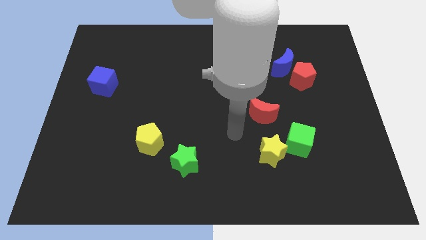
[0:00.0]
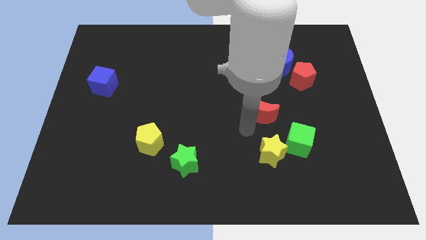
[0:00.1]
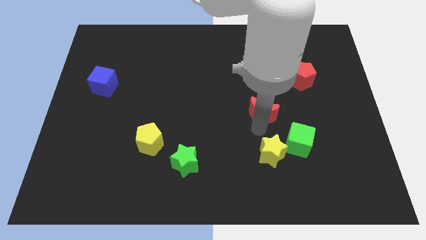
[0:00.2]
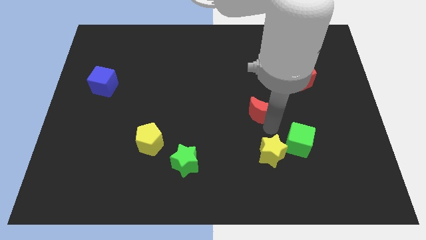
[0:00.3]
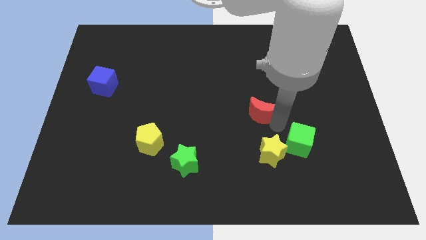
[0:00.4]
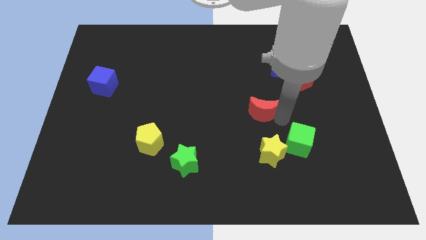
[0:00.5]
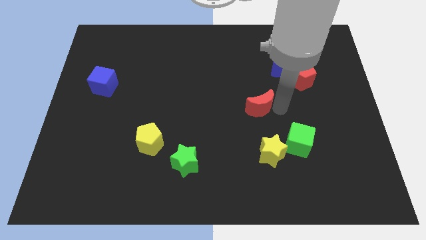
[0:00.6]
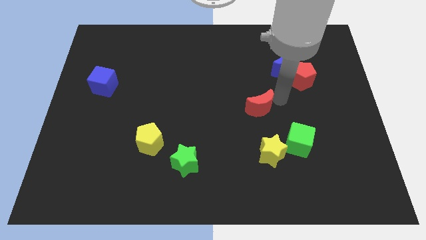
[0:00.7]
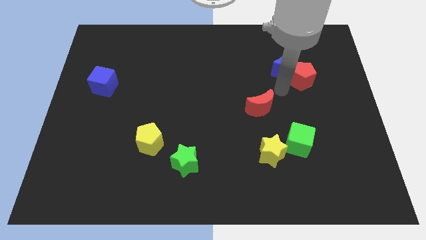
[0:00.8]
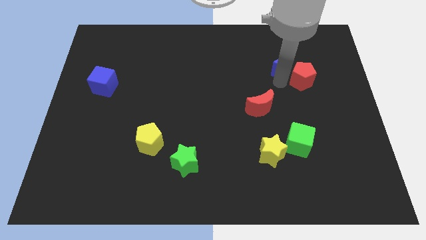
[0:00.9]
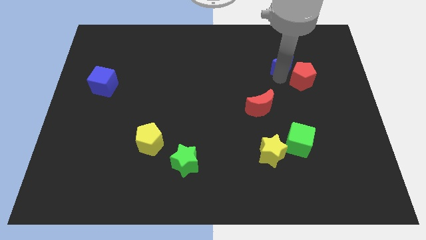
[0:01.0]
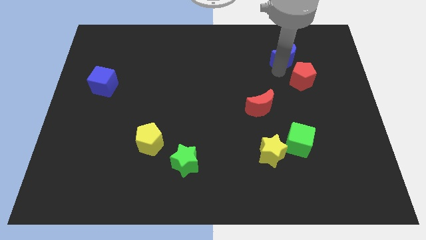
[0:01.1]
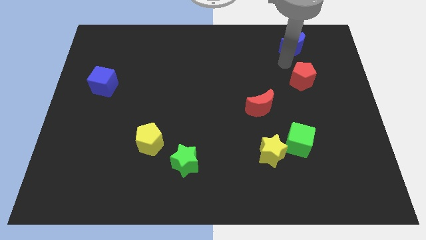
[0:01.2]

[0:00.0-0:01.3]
move the red pentagon away from the blue moon

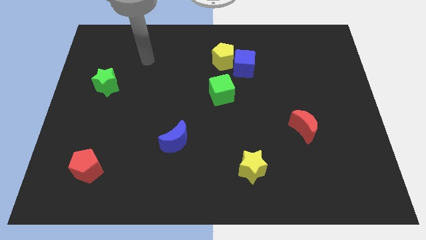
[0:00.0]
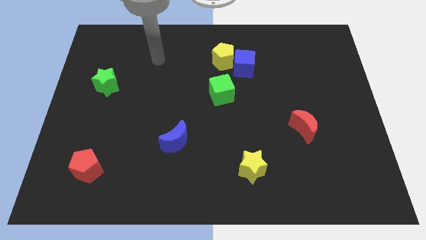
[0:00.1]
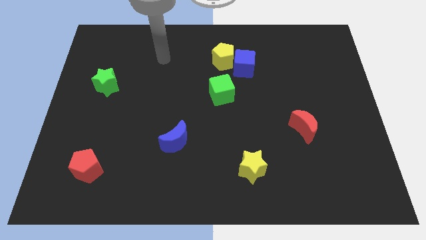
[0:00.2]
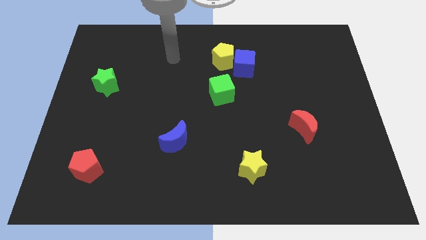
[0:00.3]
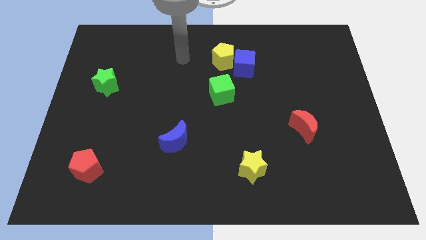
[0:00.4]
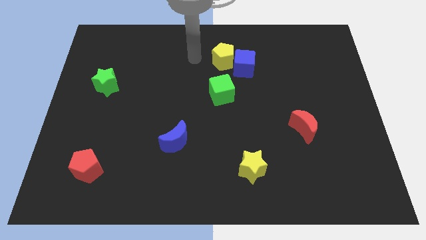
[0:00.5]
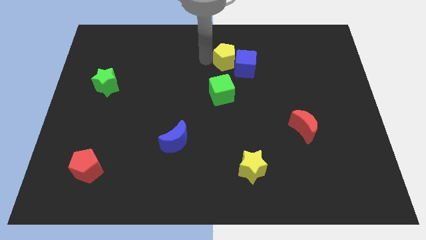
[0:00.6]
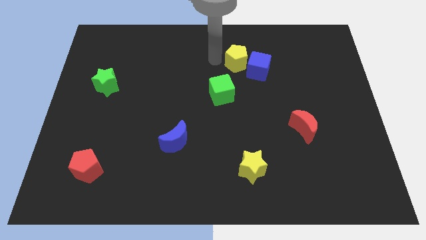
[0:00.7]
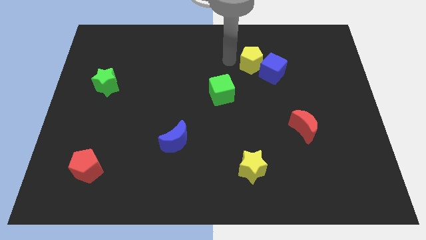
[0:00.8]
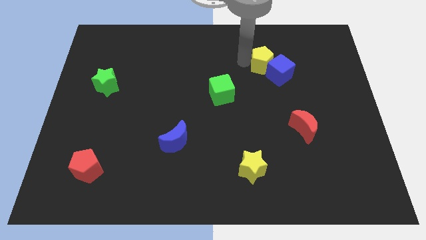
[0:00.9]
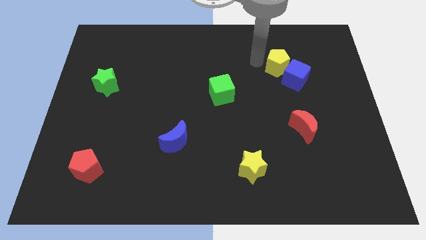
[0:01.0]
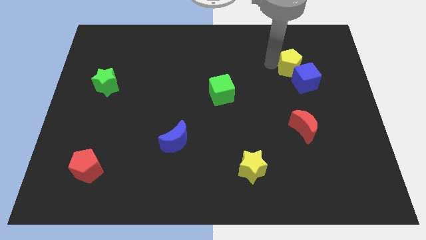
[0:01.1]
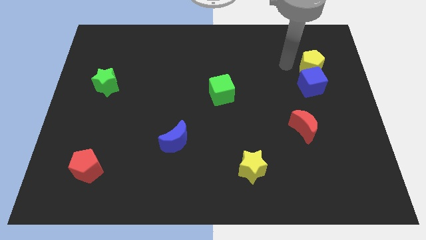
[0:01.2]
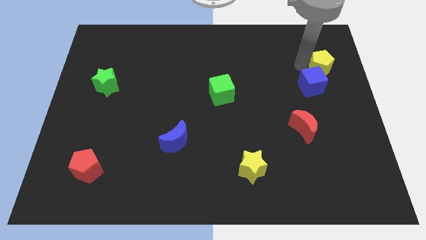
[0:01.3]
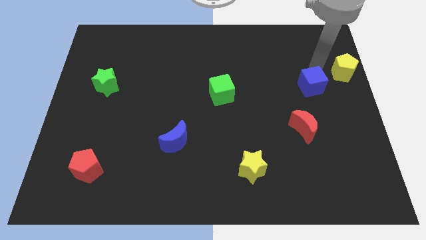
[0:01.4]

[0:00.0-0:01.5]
move the blue cube away from the yellow pentagon

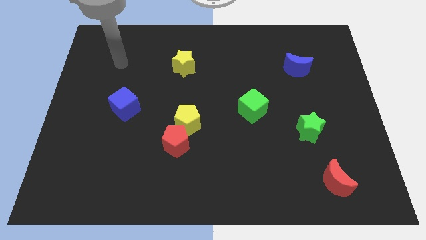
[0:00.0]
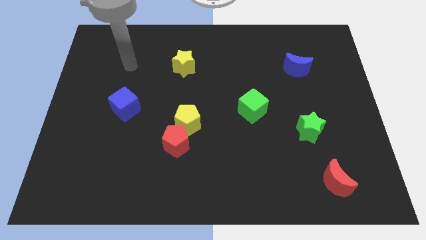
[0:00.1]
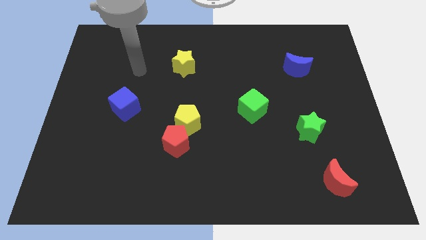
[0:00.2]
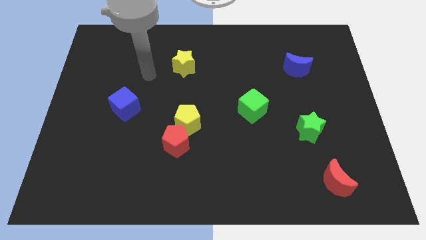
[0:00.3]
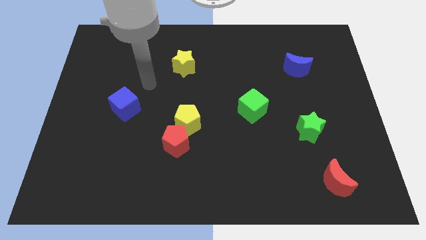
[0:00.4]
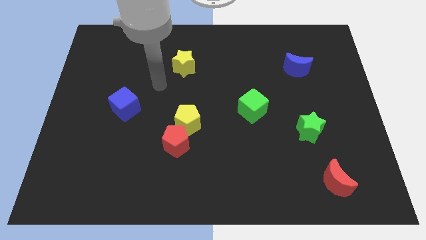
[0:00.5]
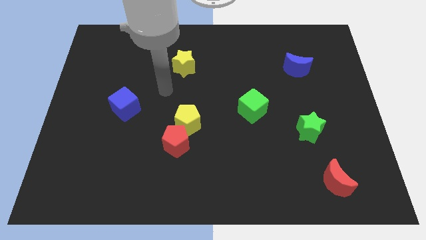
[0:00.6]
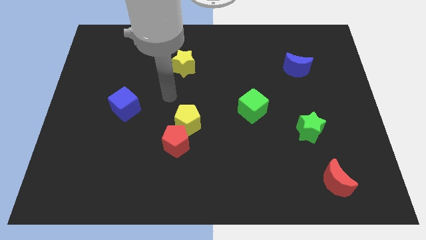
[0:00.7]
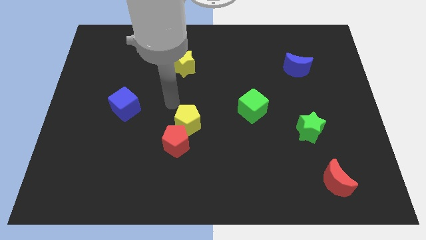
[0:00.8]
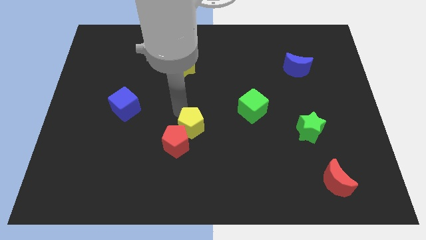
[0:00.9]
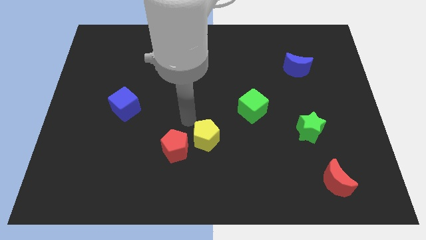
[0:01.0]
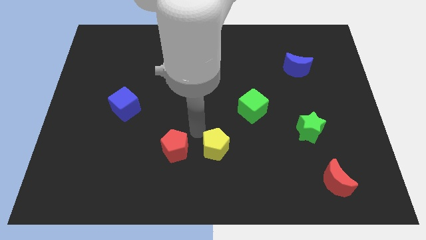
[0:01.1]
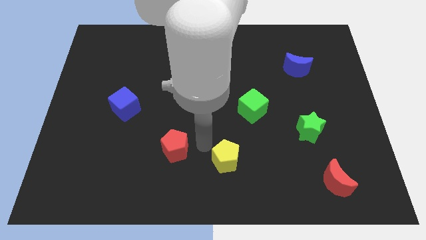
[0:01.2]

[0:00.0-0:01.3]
separate the red pentagon from the yellow pentagon

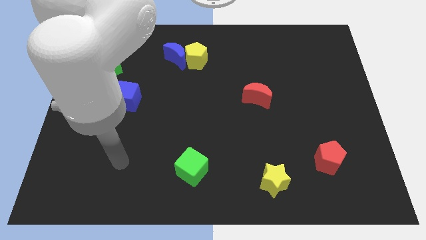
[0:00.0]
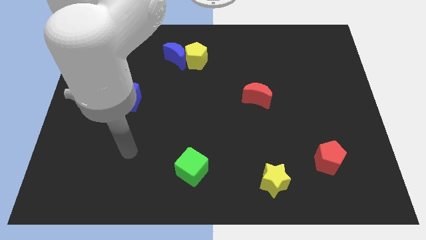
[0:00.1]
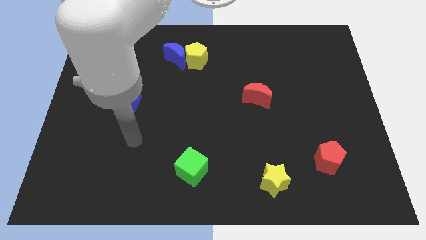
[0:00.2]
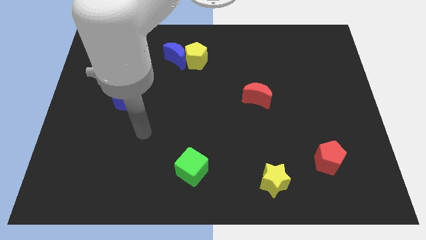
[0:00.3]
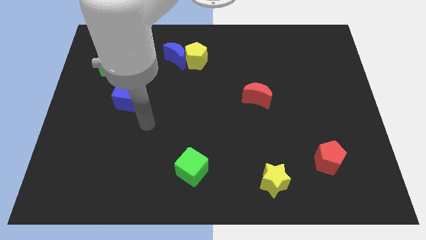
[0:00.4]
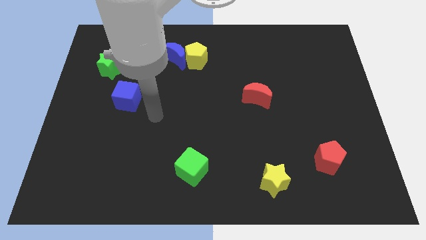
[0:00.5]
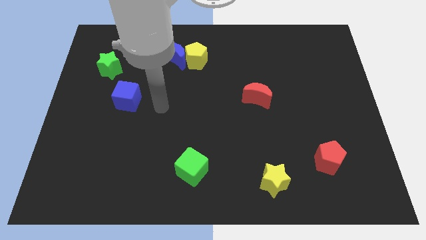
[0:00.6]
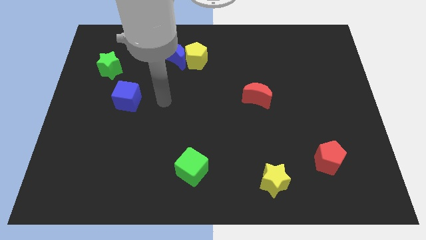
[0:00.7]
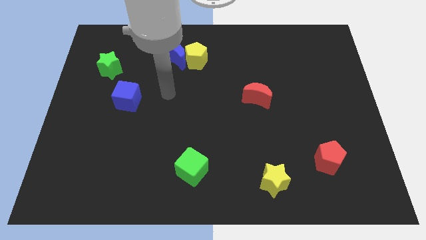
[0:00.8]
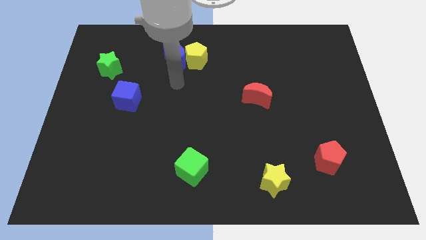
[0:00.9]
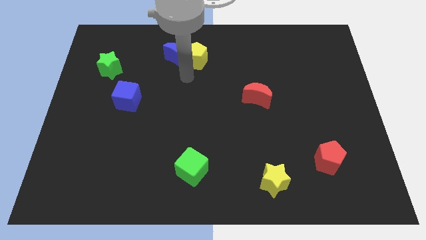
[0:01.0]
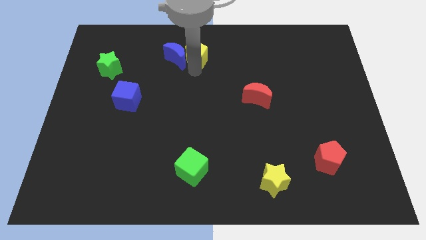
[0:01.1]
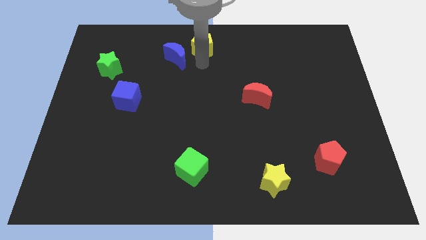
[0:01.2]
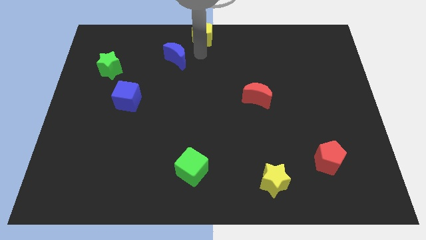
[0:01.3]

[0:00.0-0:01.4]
separate the blue moon from the yellow pentagon

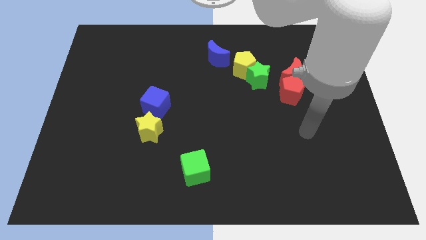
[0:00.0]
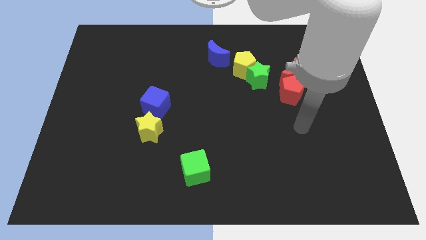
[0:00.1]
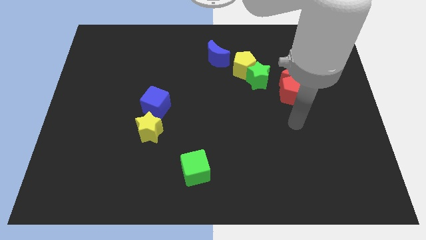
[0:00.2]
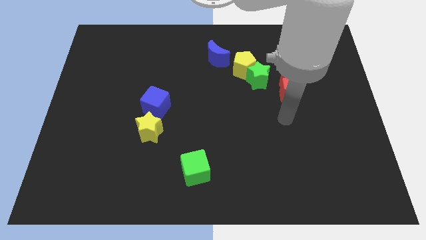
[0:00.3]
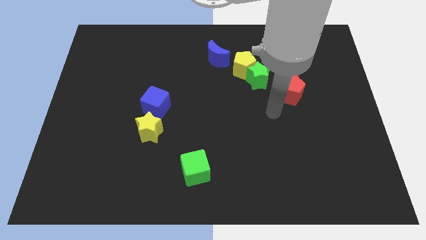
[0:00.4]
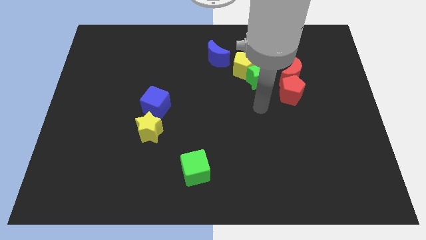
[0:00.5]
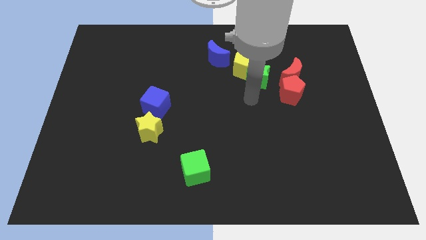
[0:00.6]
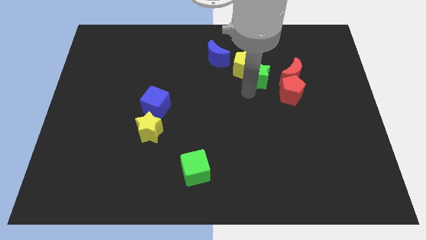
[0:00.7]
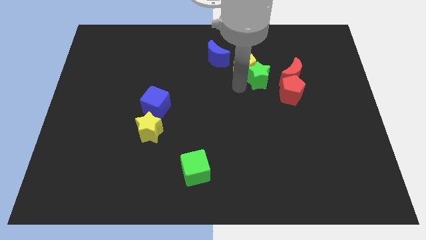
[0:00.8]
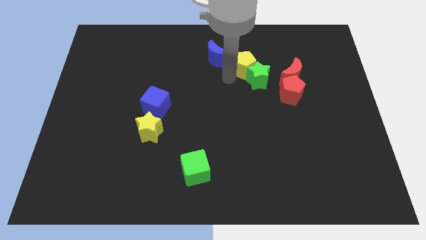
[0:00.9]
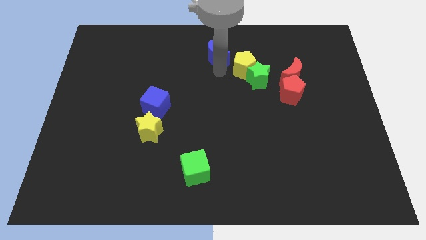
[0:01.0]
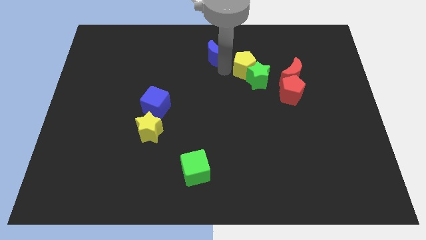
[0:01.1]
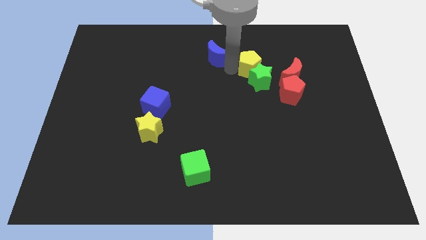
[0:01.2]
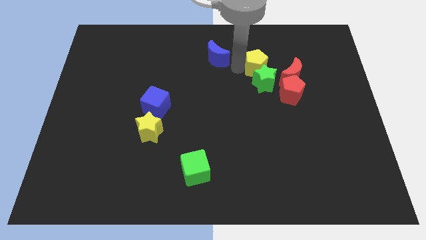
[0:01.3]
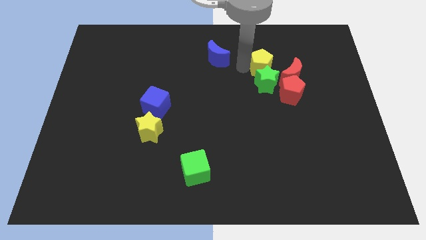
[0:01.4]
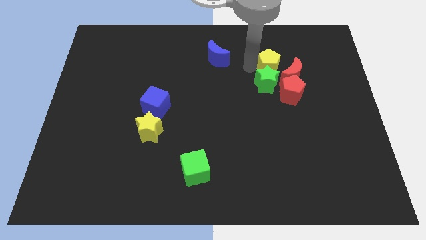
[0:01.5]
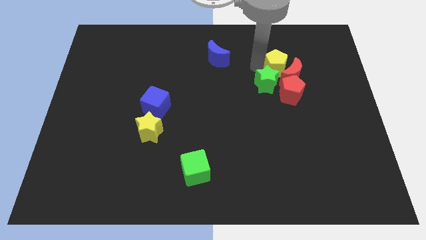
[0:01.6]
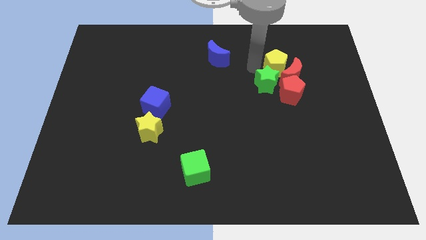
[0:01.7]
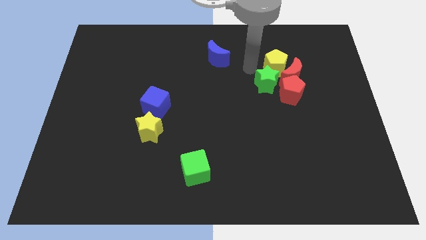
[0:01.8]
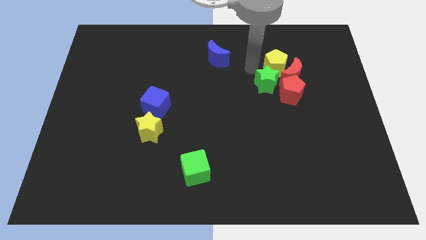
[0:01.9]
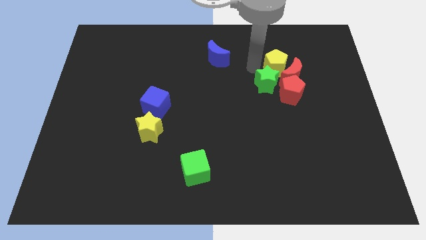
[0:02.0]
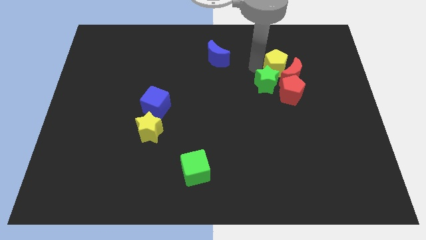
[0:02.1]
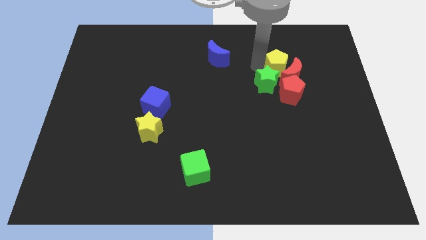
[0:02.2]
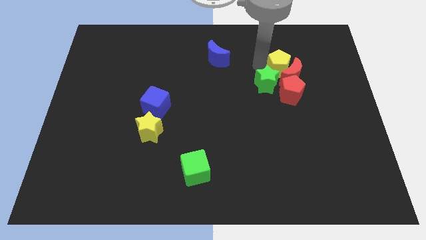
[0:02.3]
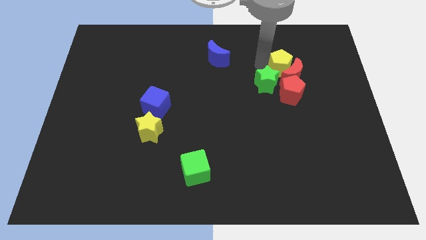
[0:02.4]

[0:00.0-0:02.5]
move the yellow pentagon away from the green star and blue moon

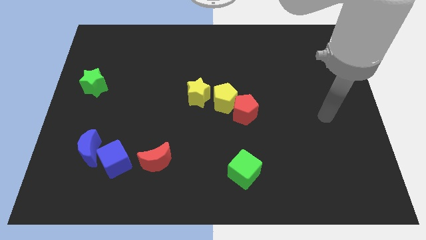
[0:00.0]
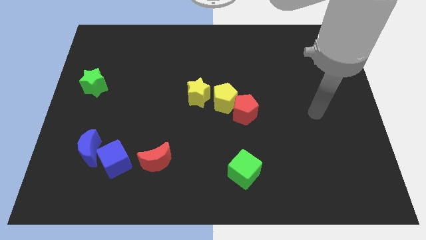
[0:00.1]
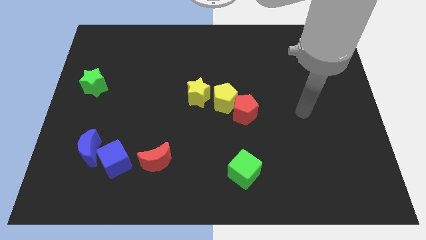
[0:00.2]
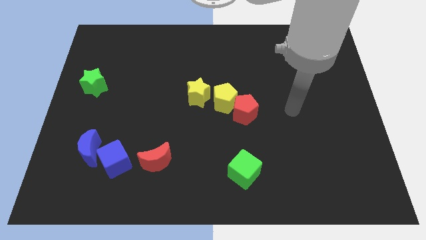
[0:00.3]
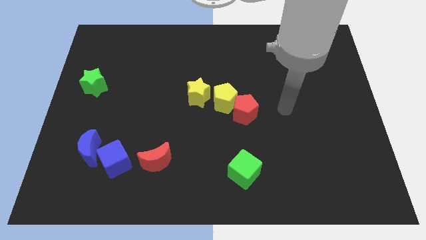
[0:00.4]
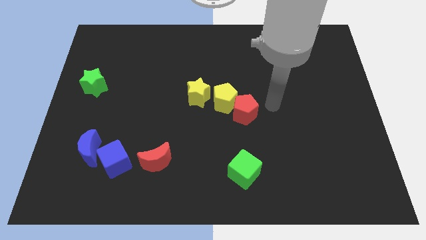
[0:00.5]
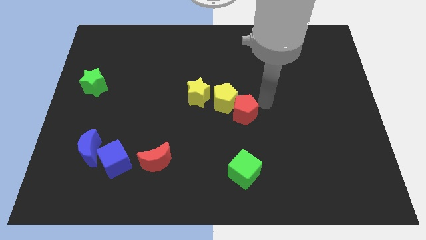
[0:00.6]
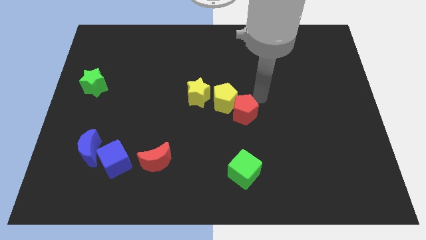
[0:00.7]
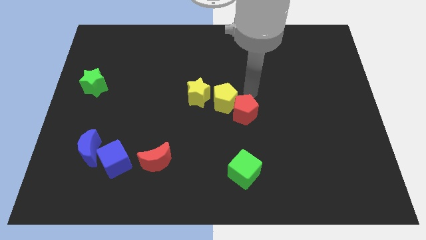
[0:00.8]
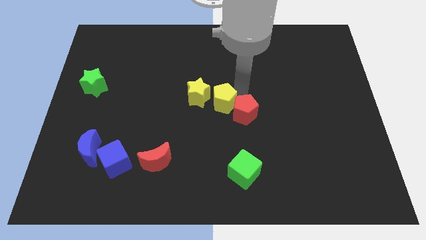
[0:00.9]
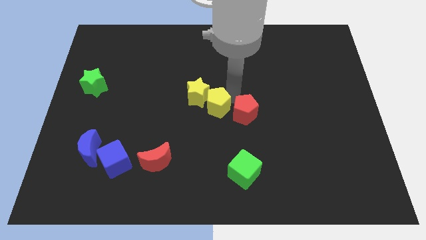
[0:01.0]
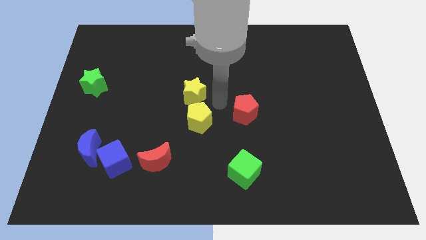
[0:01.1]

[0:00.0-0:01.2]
move the red pentagon away from the yellow pentagon

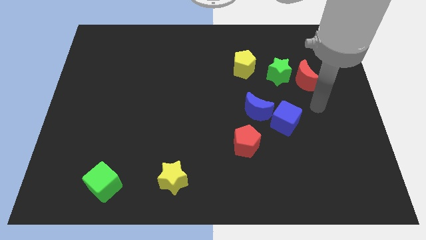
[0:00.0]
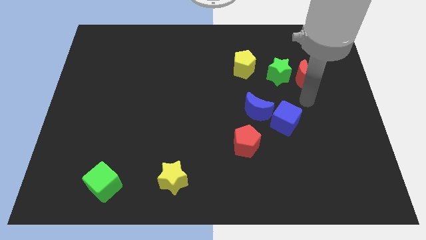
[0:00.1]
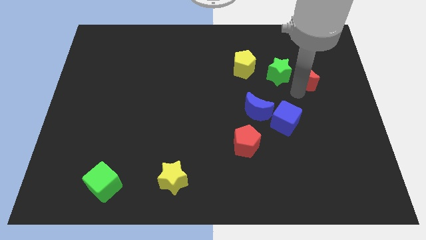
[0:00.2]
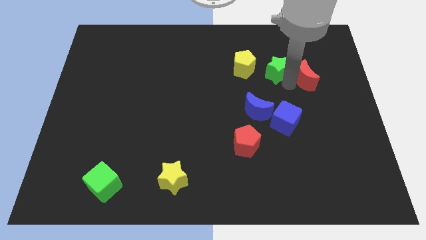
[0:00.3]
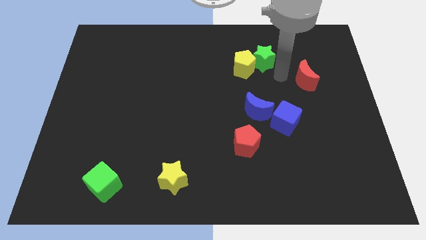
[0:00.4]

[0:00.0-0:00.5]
separate the red moon from the green star
